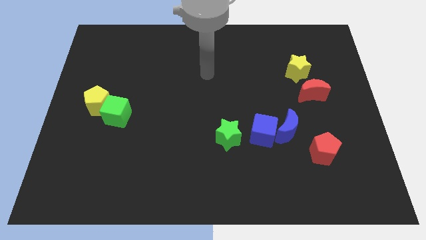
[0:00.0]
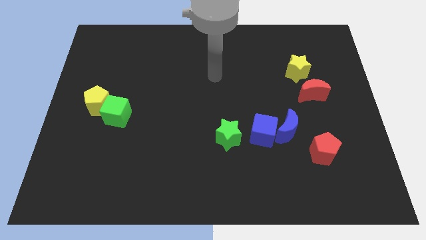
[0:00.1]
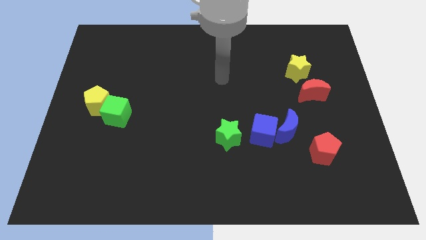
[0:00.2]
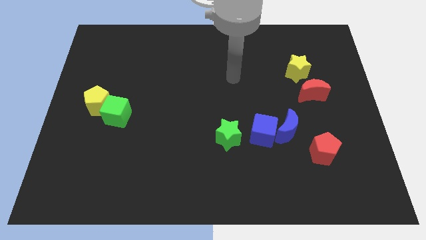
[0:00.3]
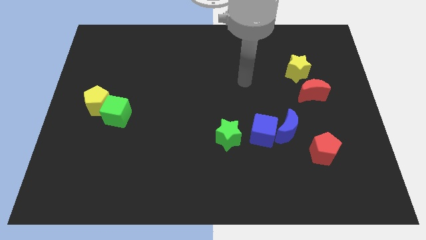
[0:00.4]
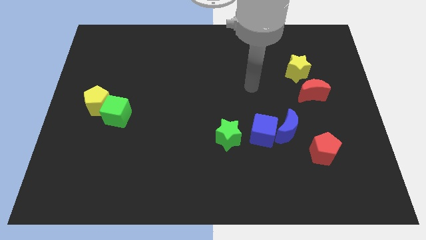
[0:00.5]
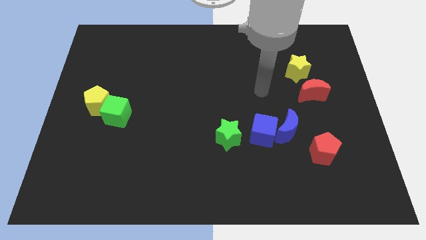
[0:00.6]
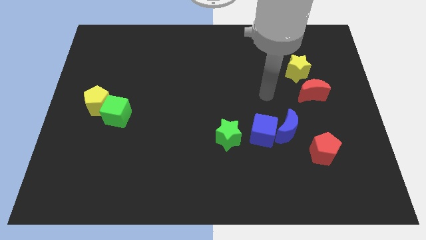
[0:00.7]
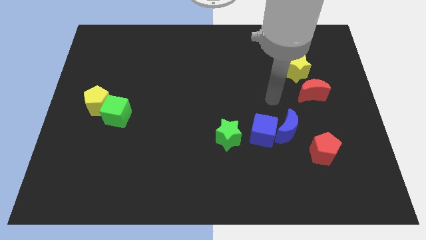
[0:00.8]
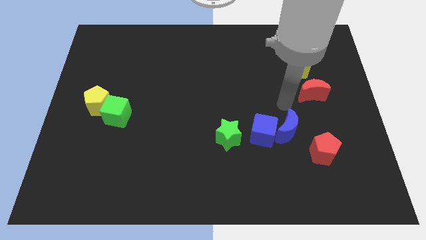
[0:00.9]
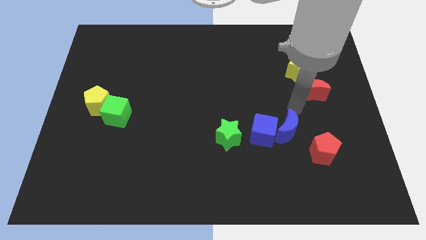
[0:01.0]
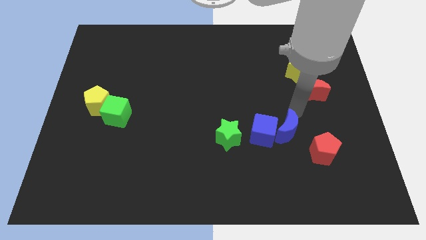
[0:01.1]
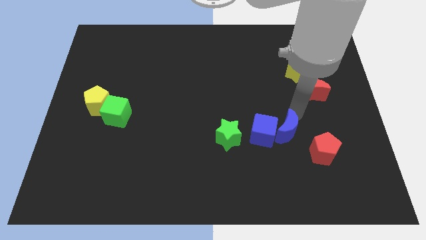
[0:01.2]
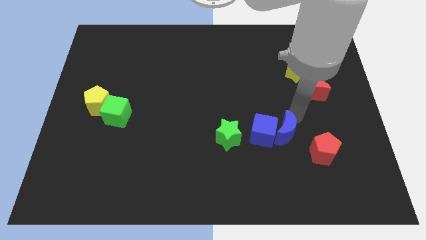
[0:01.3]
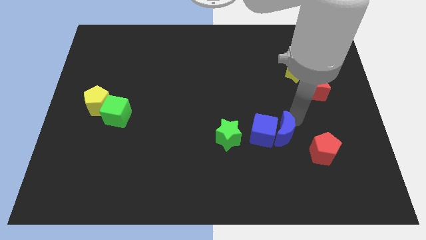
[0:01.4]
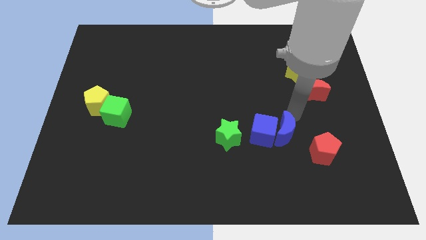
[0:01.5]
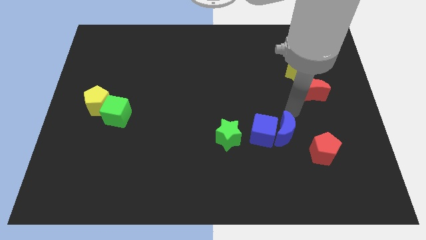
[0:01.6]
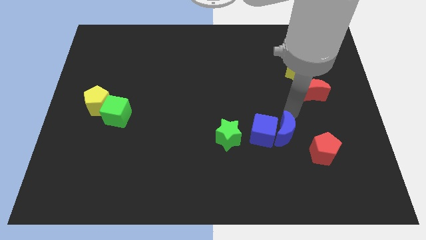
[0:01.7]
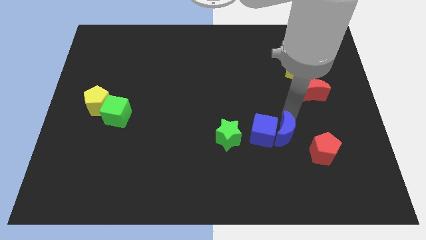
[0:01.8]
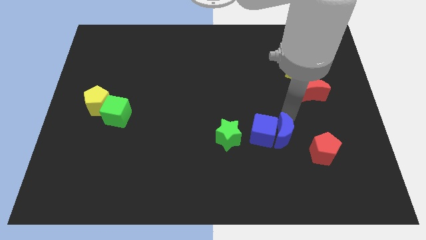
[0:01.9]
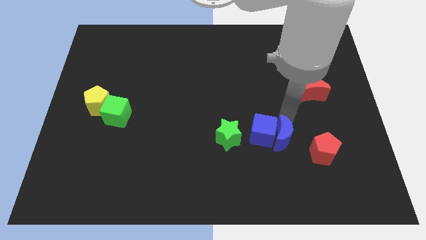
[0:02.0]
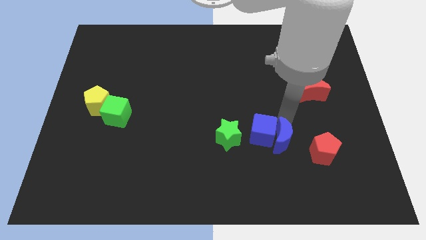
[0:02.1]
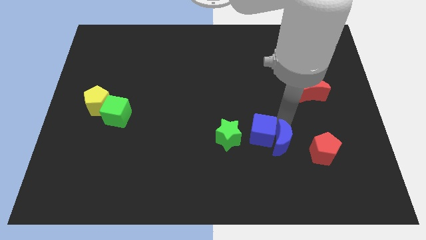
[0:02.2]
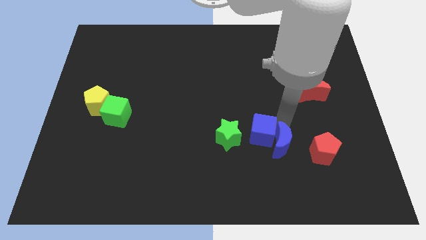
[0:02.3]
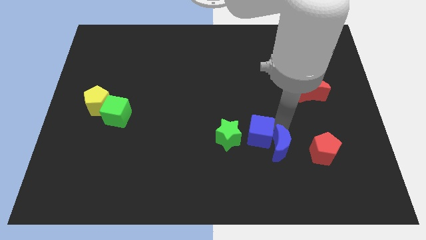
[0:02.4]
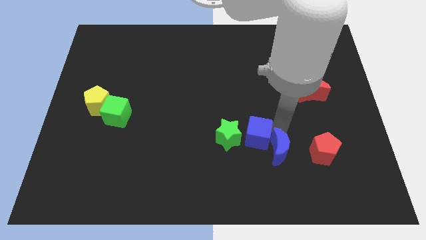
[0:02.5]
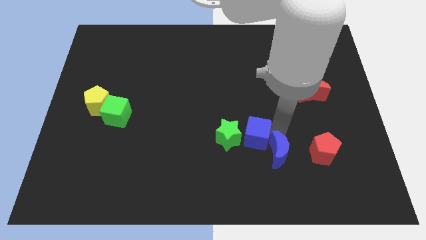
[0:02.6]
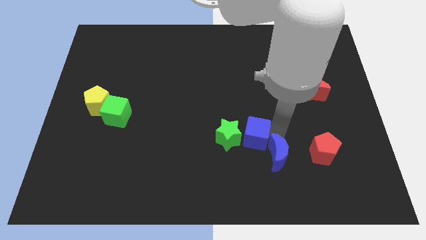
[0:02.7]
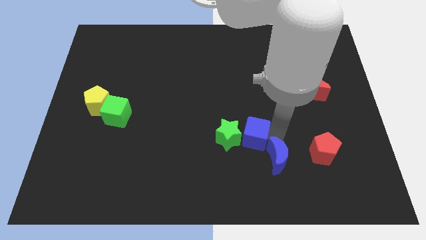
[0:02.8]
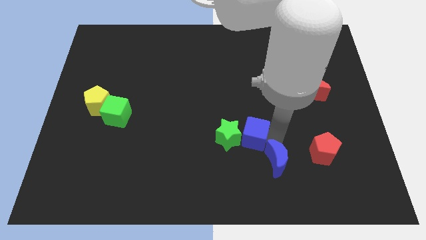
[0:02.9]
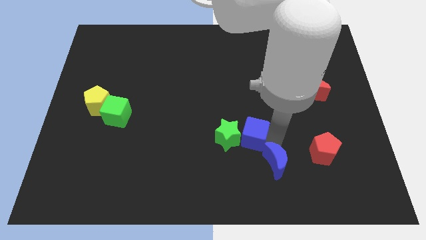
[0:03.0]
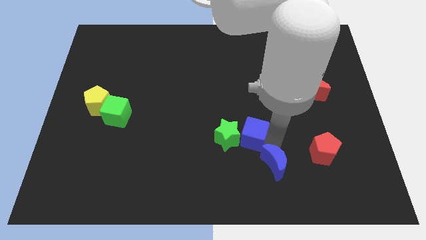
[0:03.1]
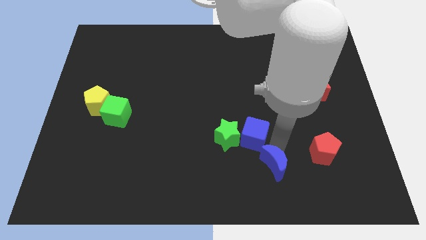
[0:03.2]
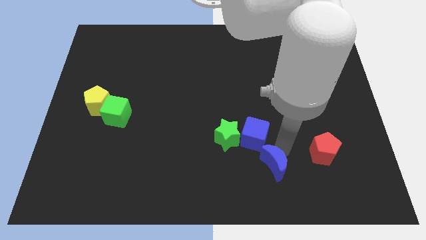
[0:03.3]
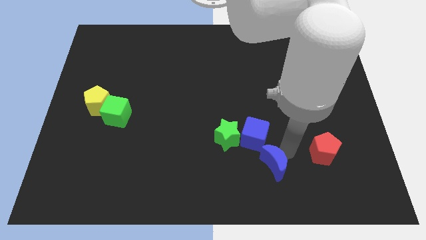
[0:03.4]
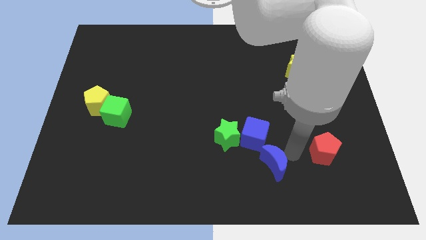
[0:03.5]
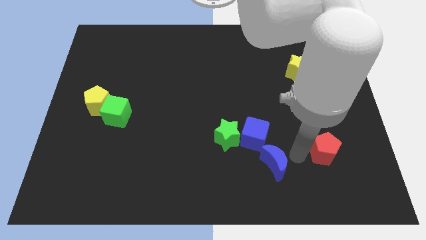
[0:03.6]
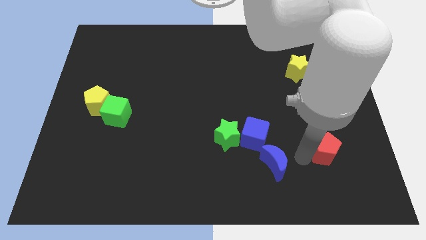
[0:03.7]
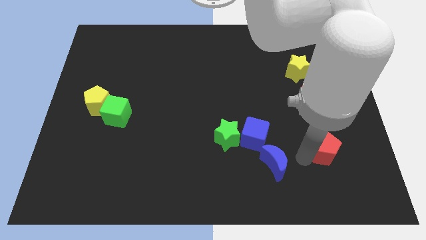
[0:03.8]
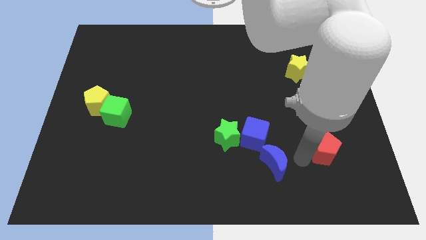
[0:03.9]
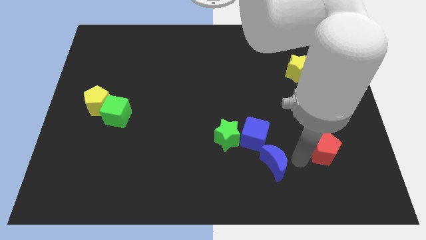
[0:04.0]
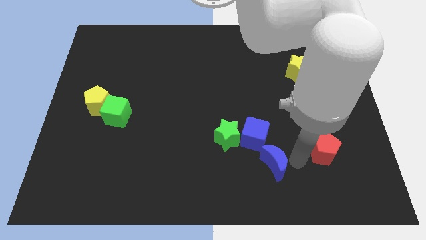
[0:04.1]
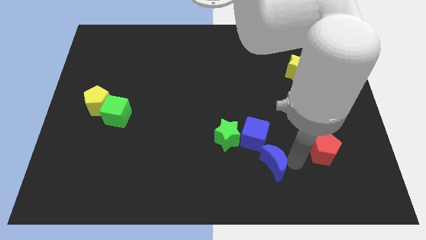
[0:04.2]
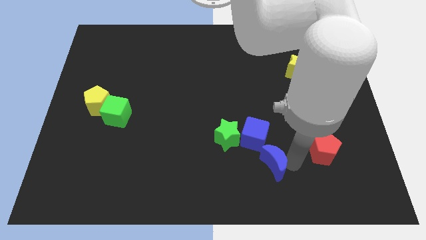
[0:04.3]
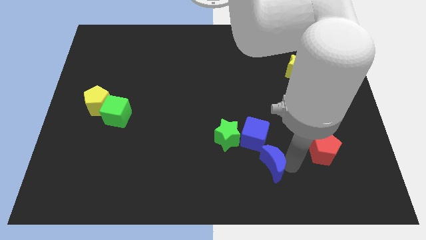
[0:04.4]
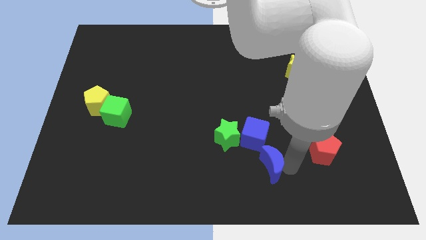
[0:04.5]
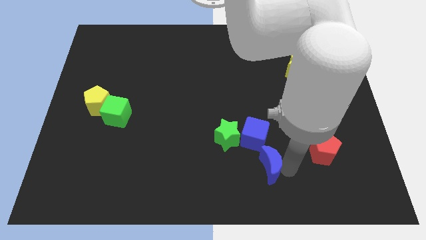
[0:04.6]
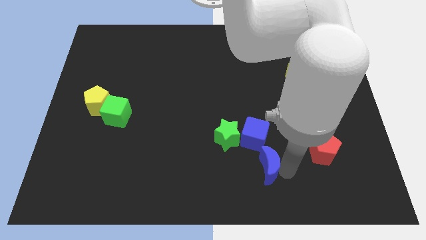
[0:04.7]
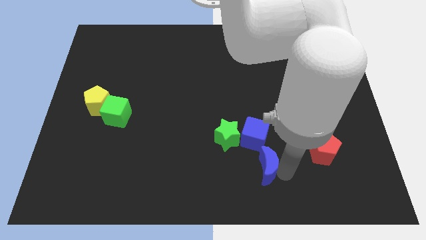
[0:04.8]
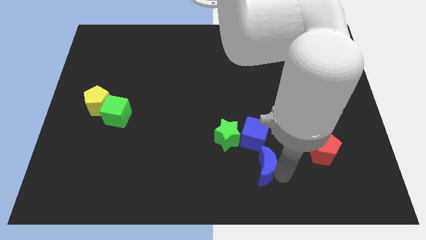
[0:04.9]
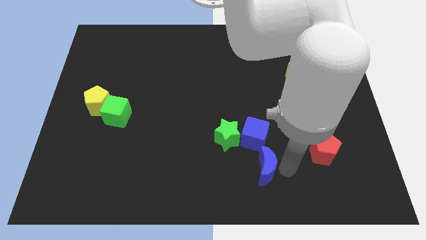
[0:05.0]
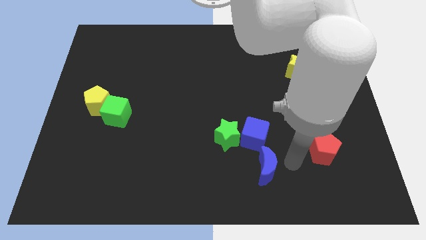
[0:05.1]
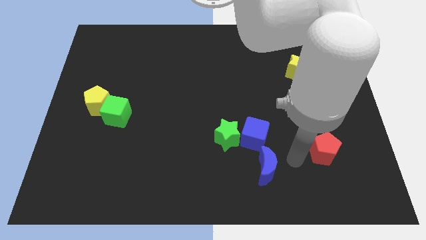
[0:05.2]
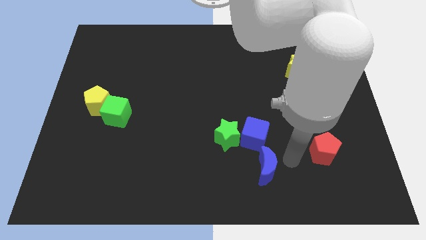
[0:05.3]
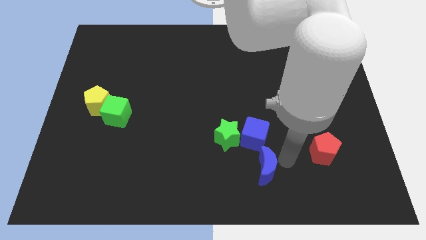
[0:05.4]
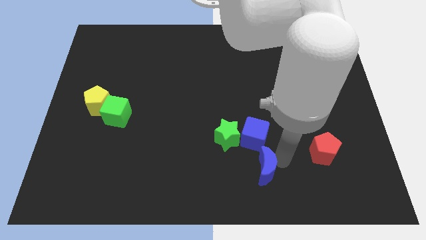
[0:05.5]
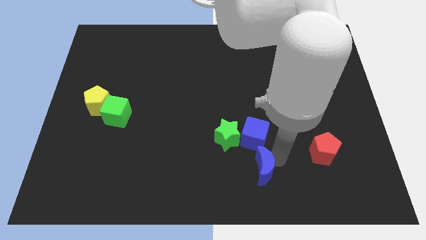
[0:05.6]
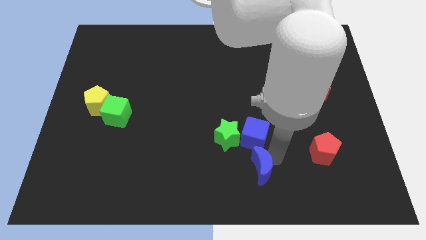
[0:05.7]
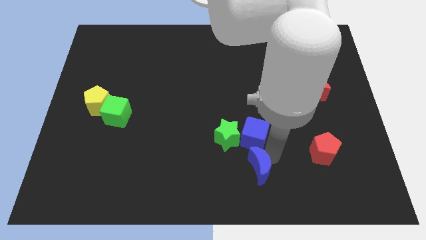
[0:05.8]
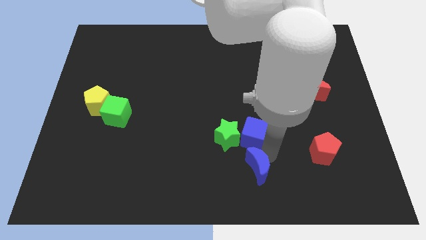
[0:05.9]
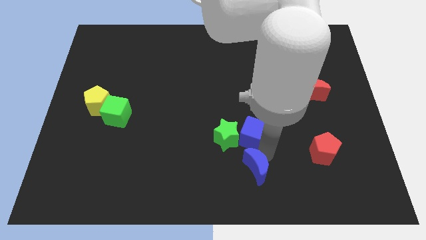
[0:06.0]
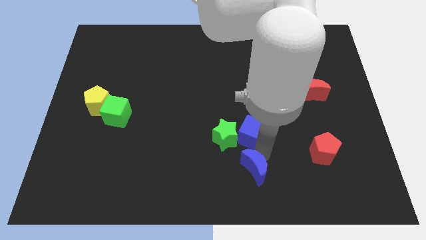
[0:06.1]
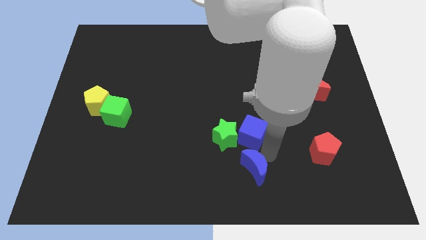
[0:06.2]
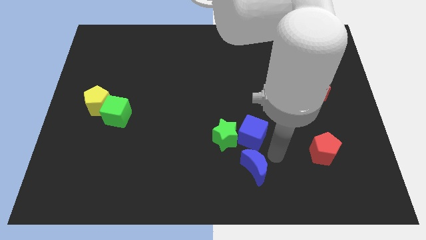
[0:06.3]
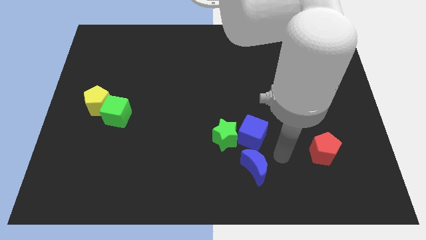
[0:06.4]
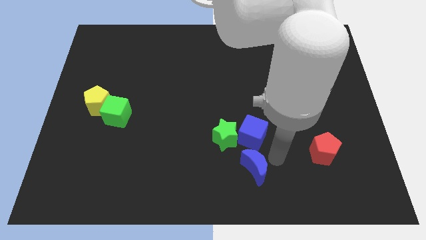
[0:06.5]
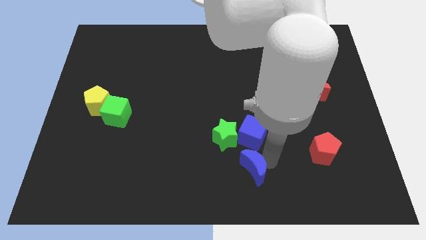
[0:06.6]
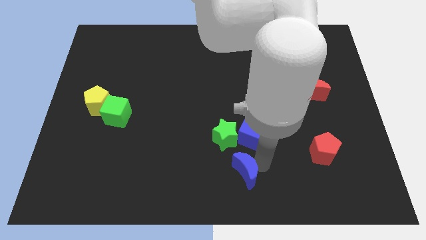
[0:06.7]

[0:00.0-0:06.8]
put the blue moon to the bottom of the green star

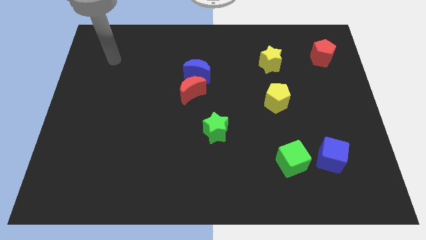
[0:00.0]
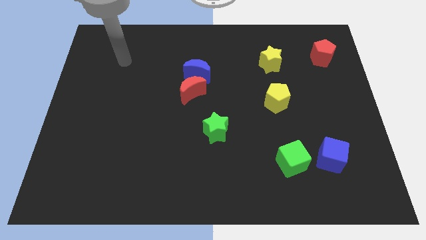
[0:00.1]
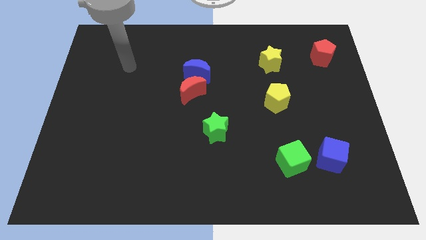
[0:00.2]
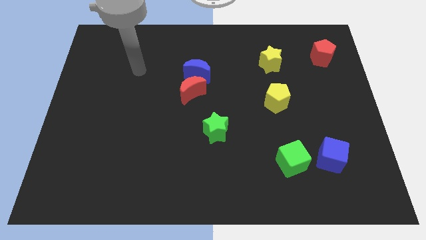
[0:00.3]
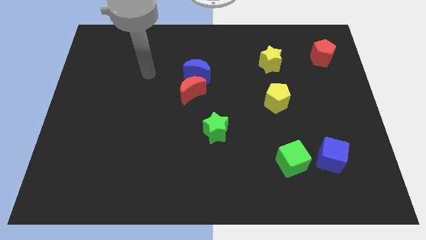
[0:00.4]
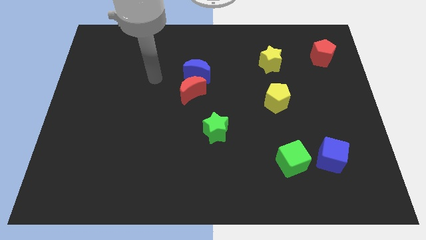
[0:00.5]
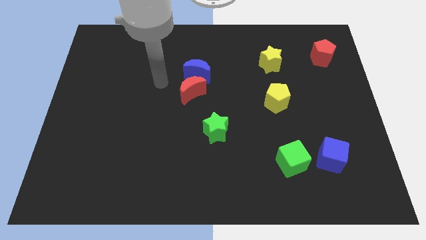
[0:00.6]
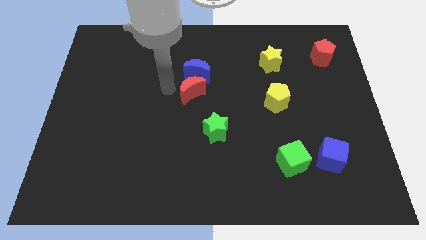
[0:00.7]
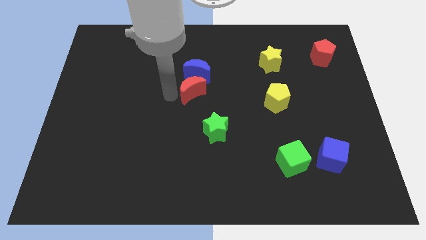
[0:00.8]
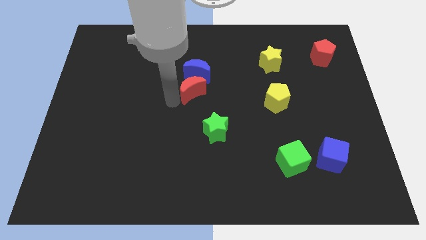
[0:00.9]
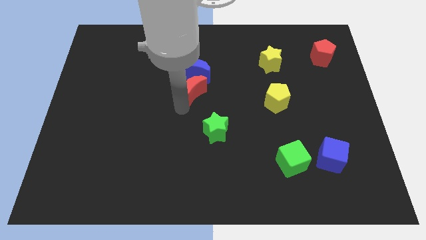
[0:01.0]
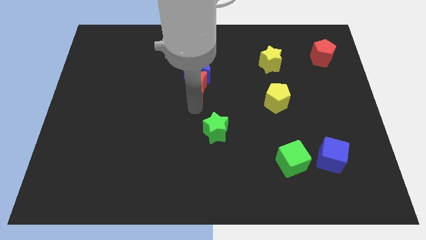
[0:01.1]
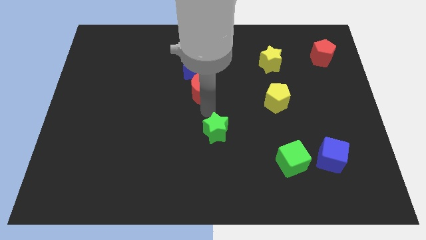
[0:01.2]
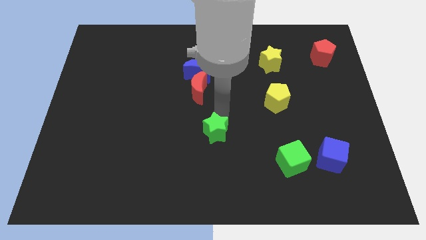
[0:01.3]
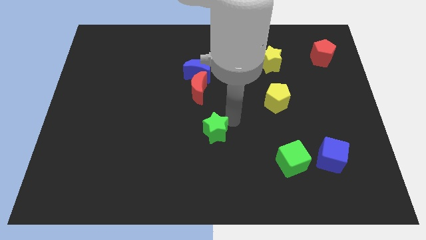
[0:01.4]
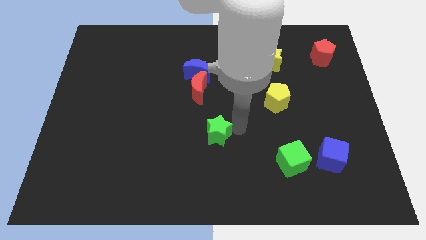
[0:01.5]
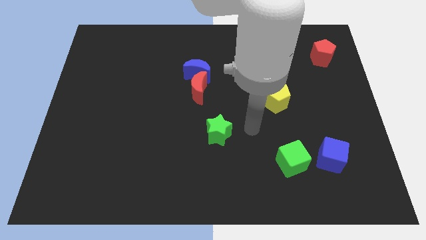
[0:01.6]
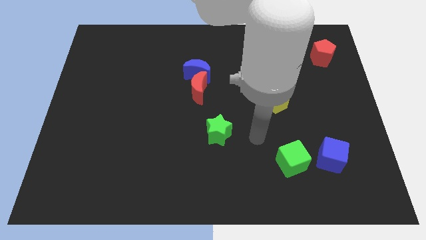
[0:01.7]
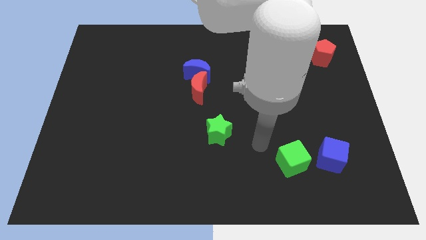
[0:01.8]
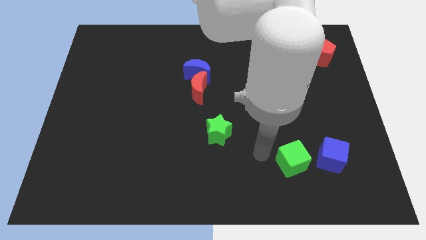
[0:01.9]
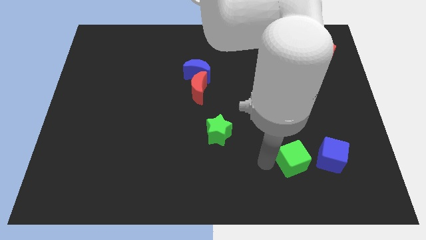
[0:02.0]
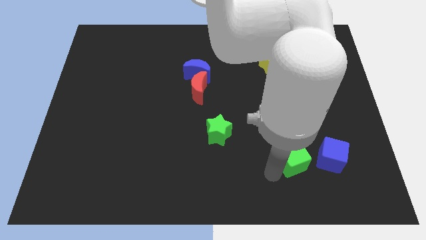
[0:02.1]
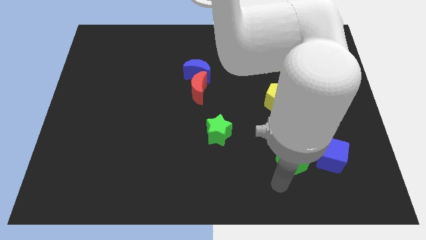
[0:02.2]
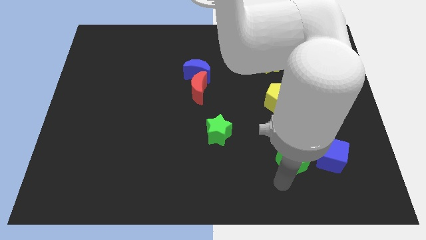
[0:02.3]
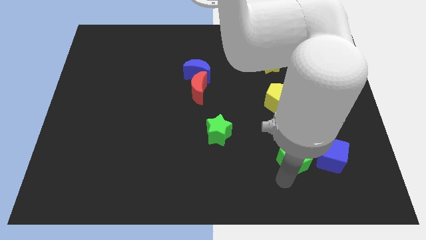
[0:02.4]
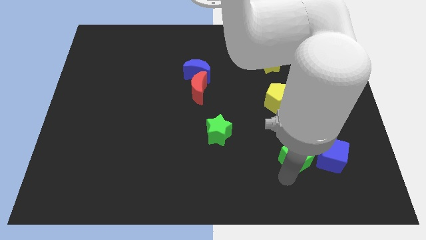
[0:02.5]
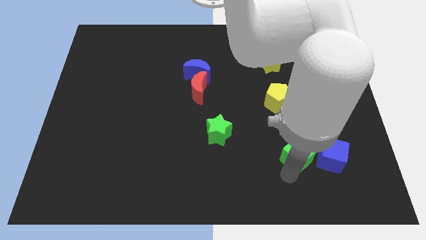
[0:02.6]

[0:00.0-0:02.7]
slide the green cube to the top left of the blue cube
